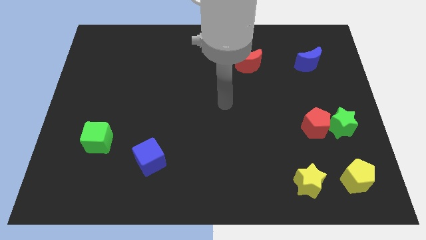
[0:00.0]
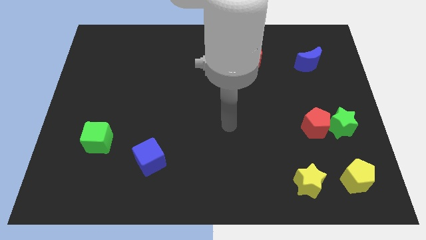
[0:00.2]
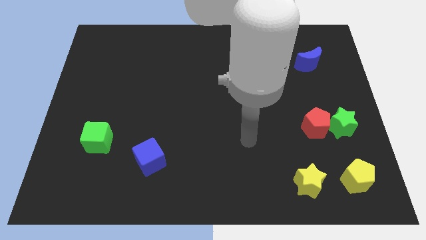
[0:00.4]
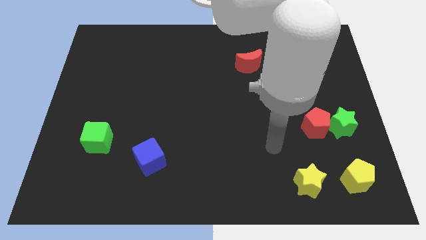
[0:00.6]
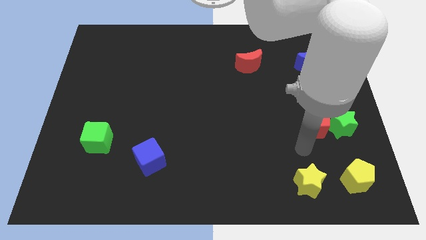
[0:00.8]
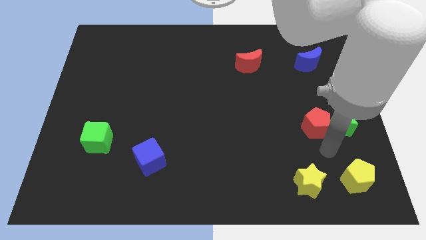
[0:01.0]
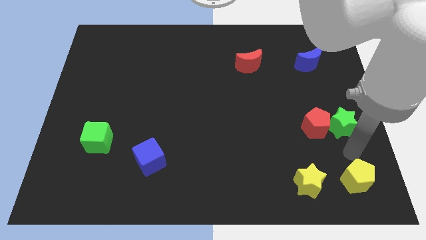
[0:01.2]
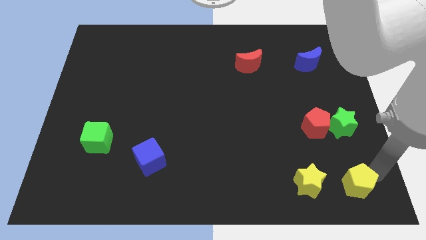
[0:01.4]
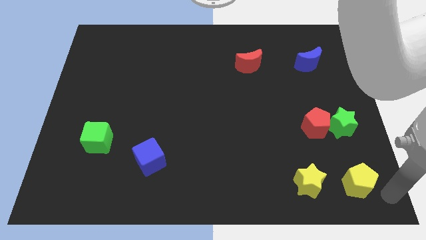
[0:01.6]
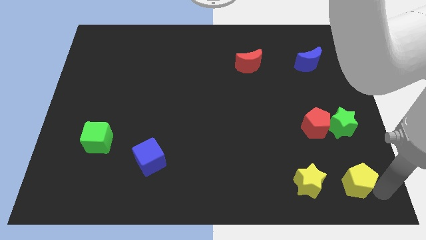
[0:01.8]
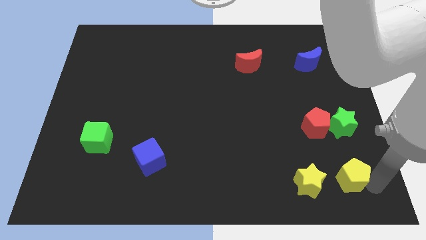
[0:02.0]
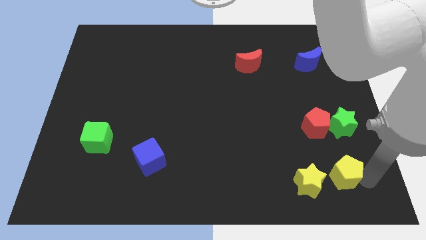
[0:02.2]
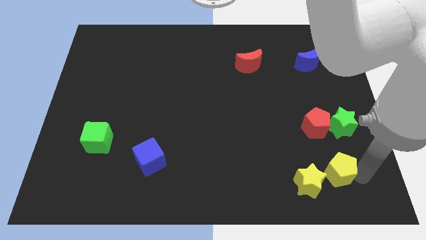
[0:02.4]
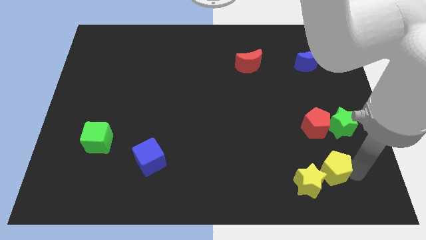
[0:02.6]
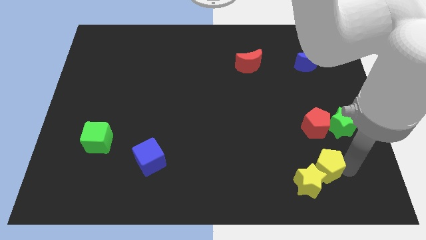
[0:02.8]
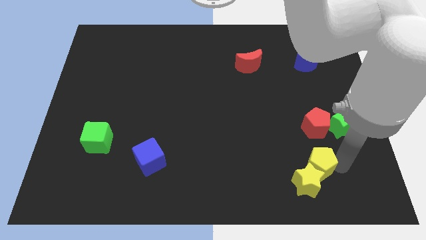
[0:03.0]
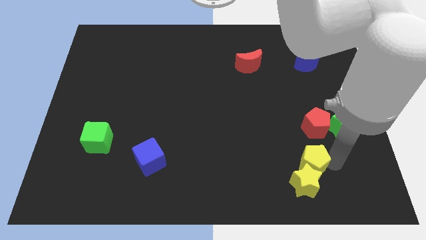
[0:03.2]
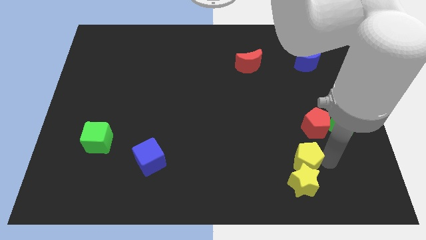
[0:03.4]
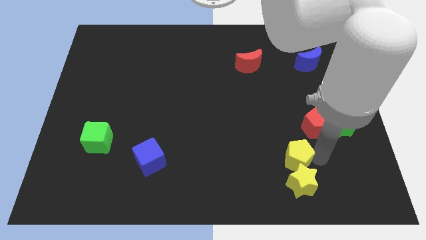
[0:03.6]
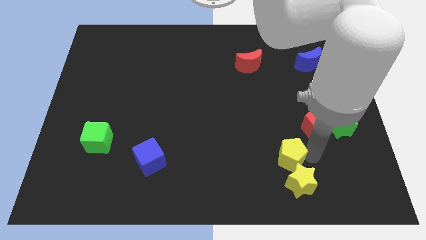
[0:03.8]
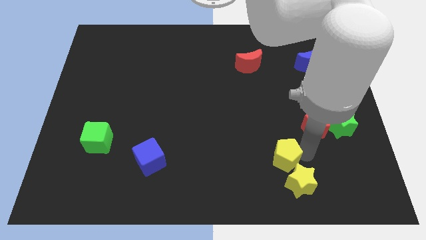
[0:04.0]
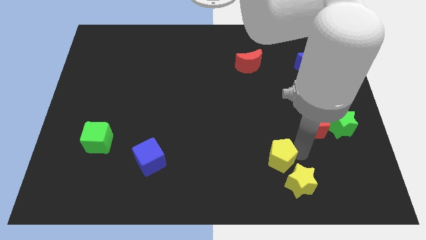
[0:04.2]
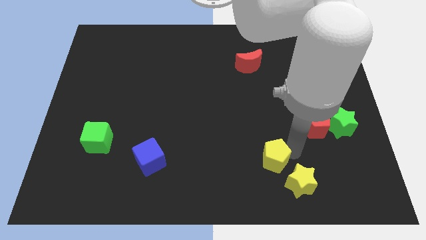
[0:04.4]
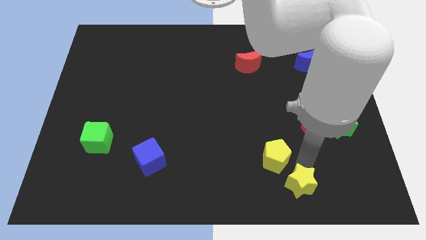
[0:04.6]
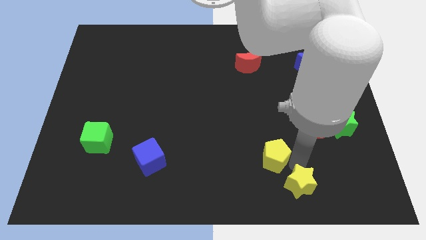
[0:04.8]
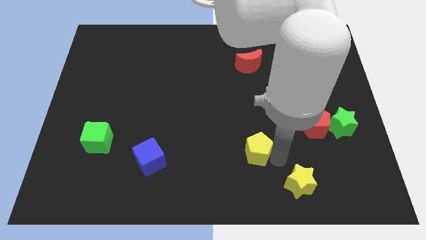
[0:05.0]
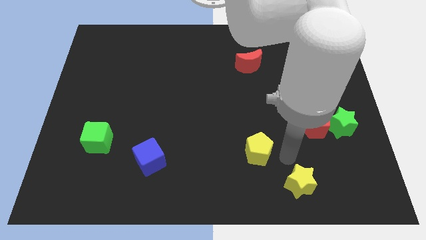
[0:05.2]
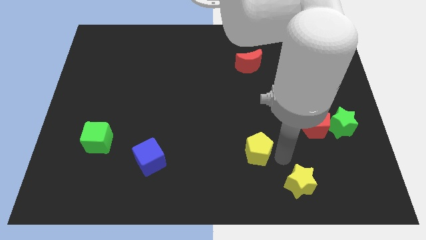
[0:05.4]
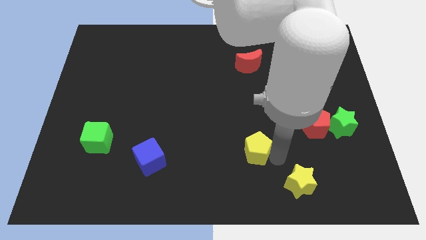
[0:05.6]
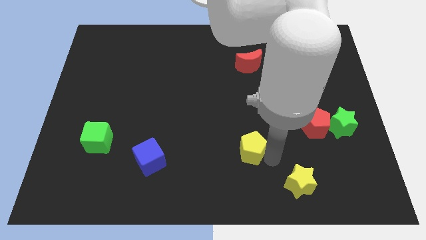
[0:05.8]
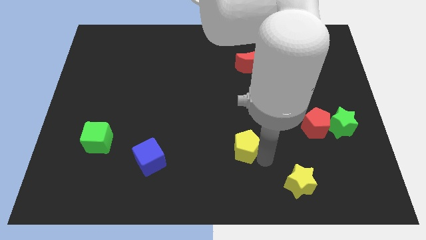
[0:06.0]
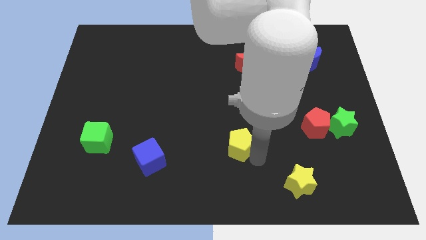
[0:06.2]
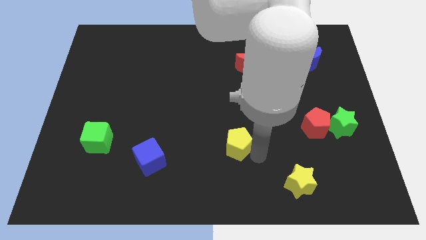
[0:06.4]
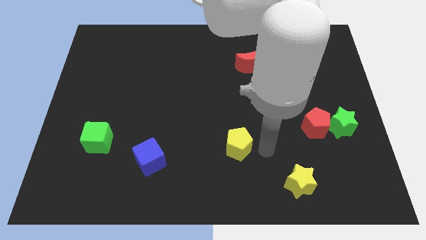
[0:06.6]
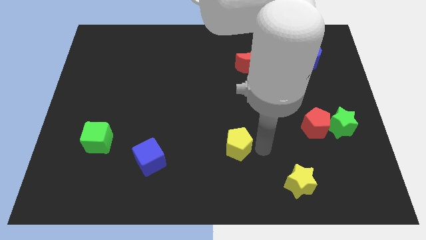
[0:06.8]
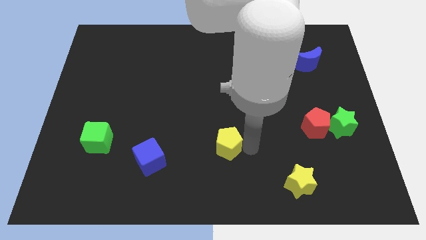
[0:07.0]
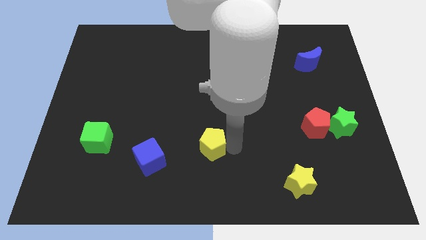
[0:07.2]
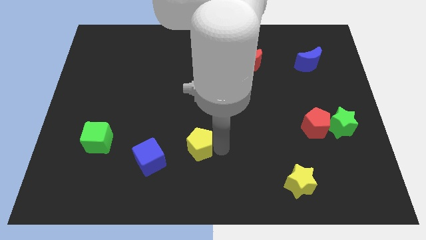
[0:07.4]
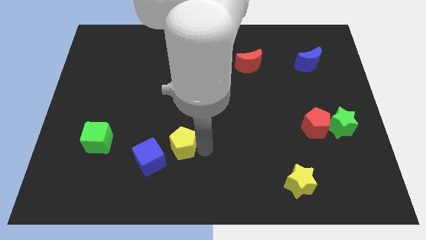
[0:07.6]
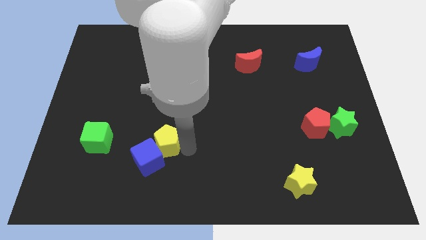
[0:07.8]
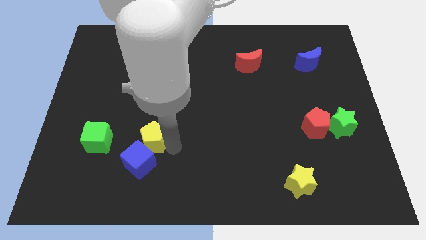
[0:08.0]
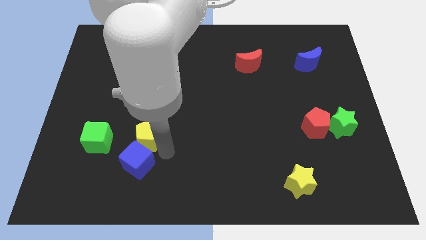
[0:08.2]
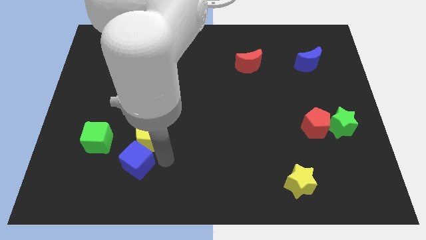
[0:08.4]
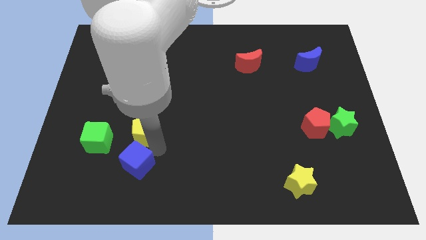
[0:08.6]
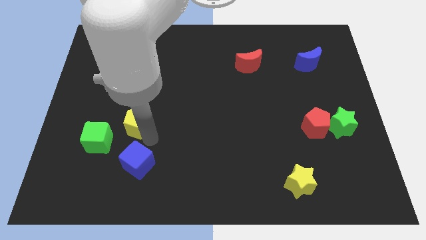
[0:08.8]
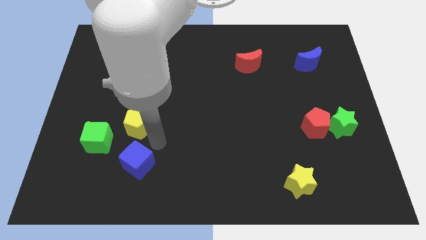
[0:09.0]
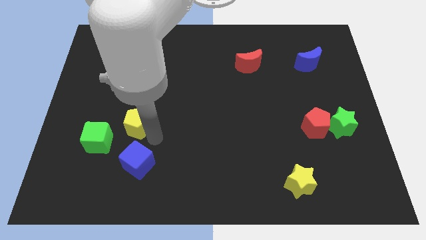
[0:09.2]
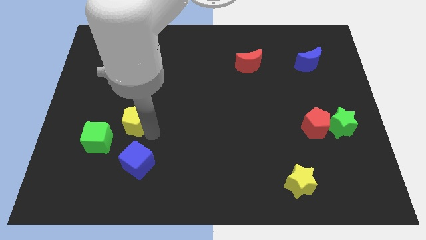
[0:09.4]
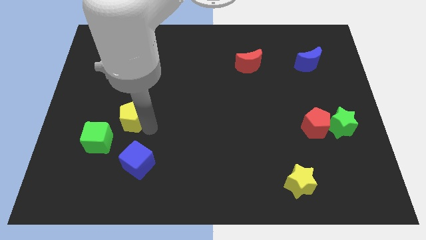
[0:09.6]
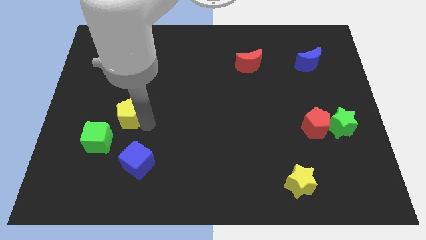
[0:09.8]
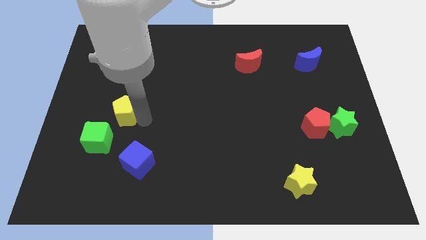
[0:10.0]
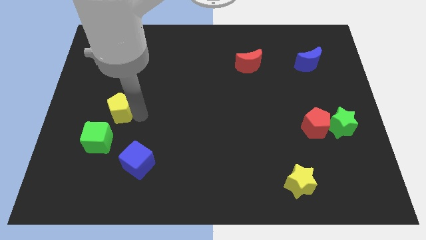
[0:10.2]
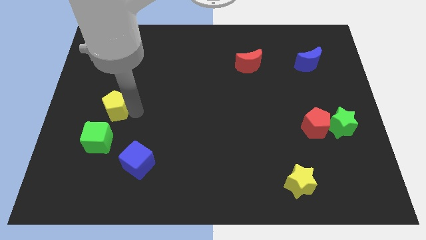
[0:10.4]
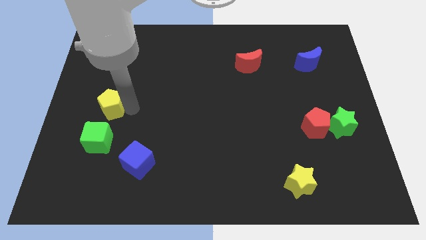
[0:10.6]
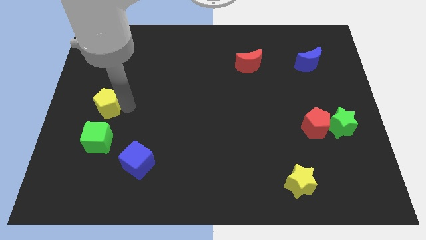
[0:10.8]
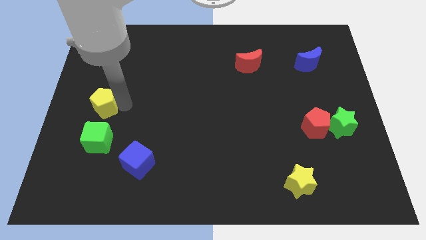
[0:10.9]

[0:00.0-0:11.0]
put the yellow pentagon to the left side of the board

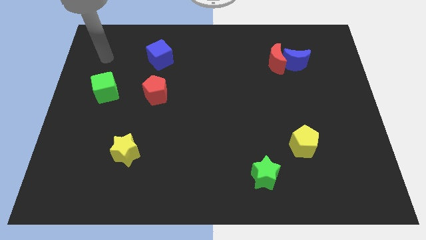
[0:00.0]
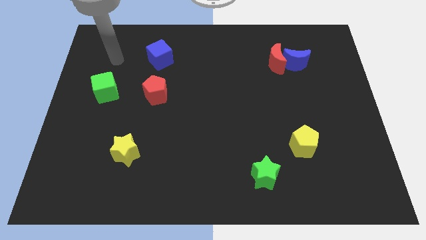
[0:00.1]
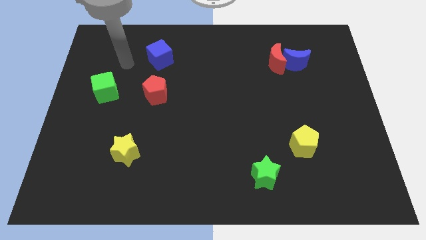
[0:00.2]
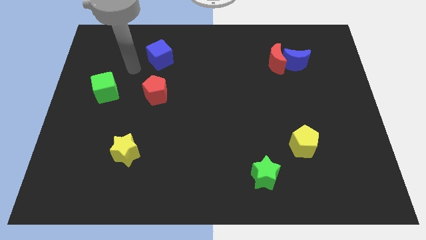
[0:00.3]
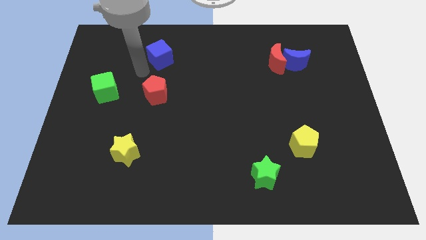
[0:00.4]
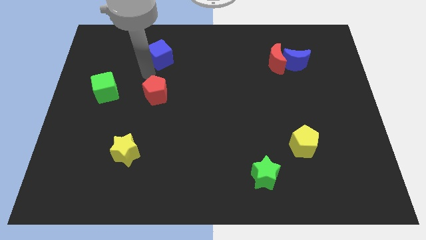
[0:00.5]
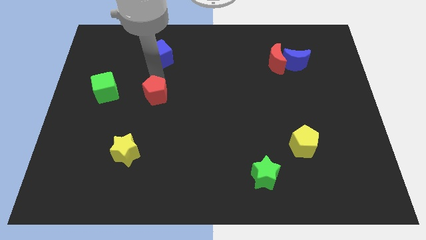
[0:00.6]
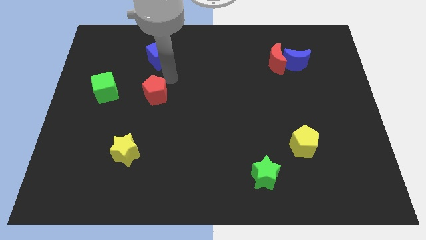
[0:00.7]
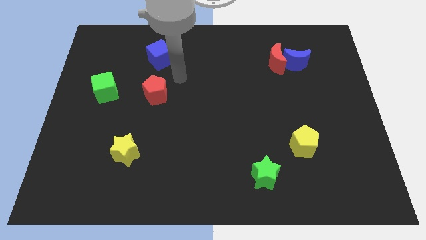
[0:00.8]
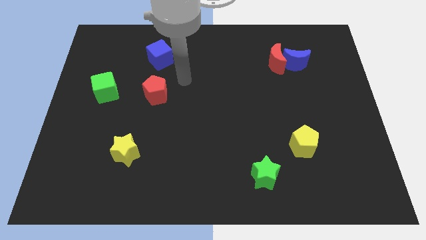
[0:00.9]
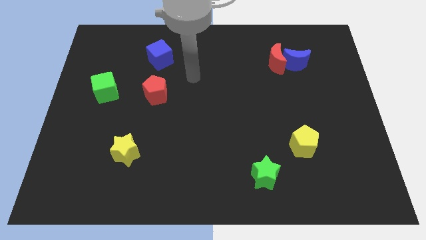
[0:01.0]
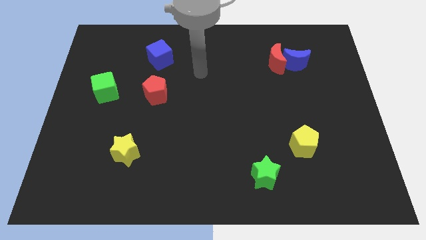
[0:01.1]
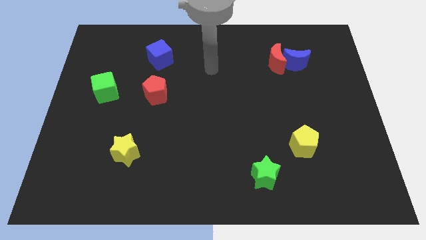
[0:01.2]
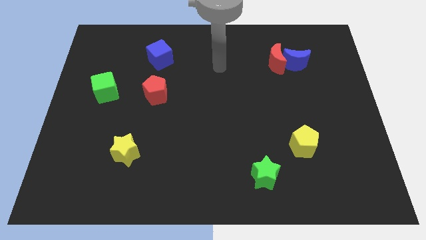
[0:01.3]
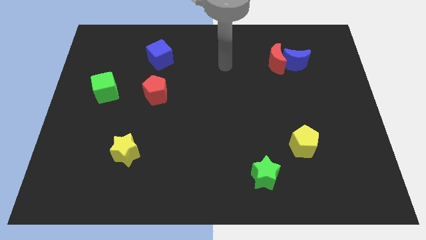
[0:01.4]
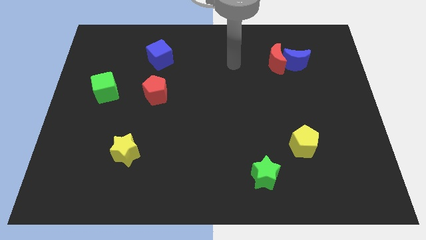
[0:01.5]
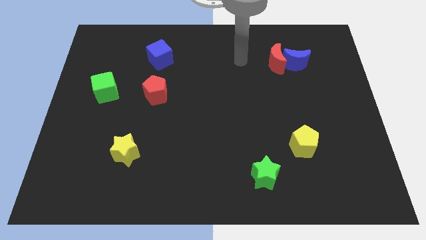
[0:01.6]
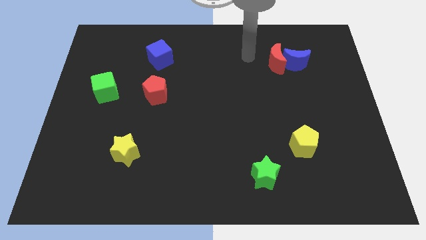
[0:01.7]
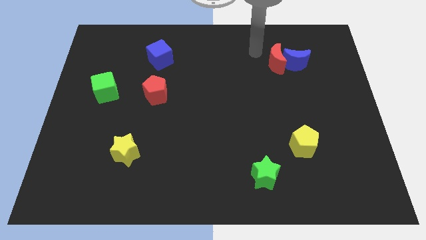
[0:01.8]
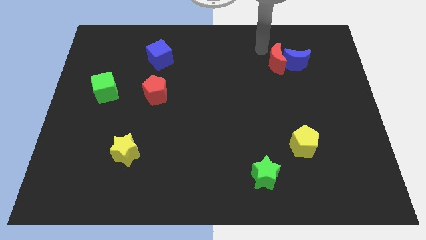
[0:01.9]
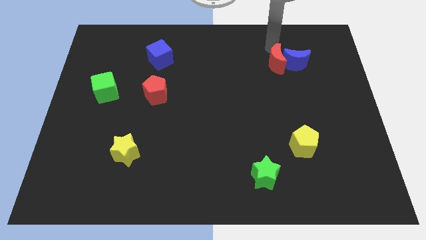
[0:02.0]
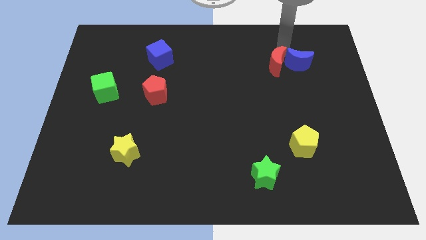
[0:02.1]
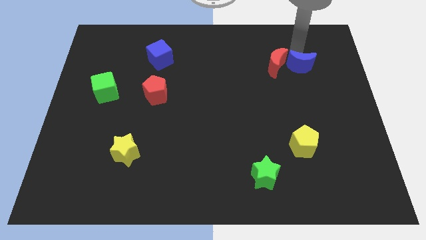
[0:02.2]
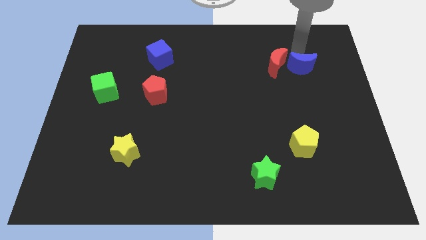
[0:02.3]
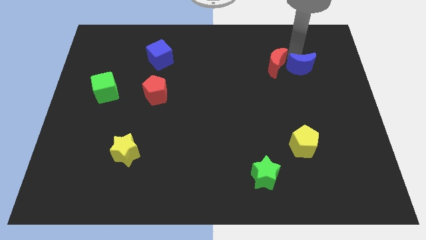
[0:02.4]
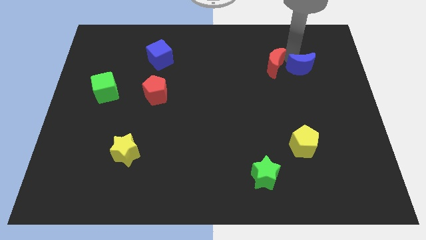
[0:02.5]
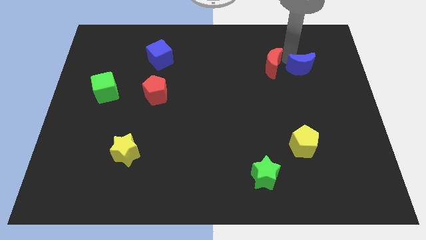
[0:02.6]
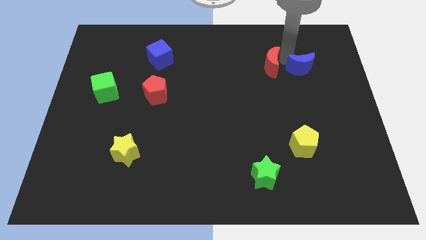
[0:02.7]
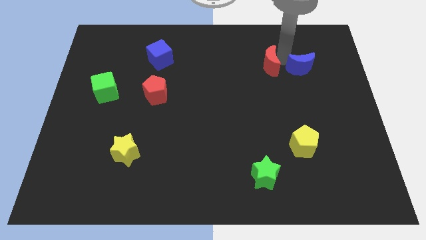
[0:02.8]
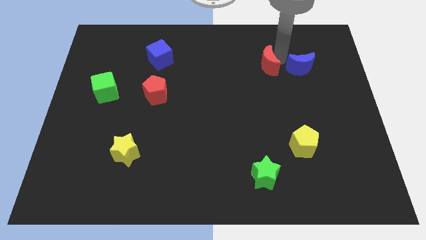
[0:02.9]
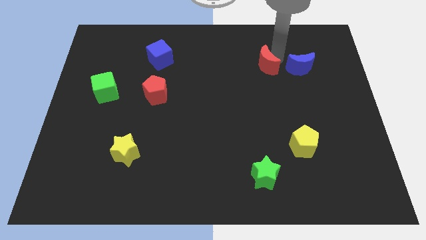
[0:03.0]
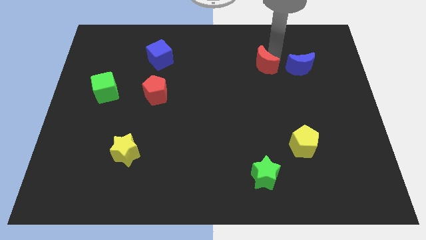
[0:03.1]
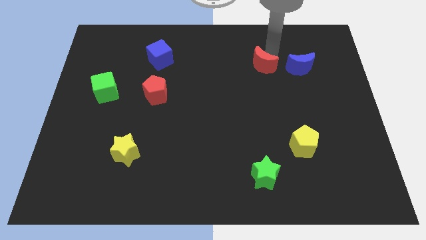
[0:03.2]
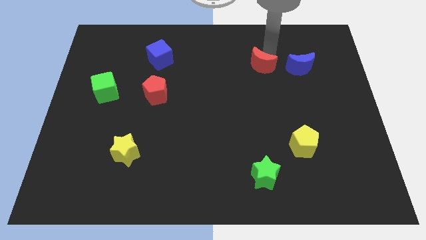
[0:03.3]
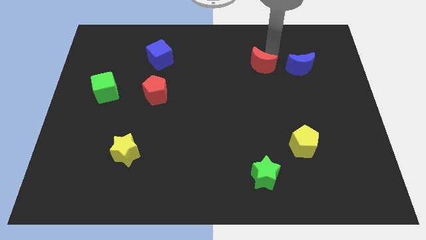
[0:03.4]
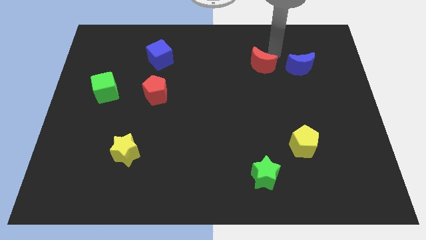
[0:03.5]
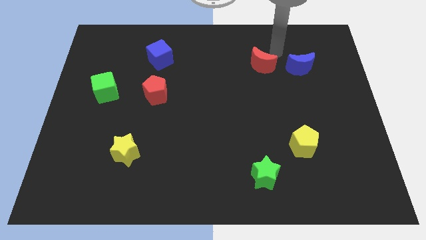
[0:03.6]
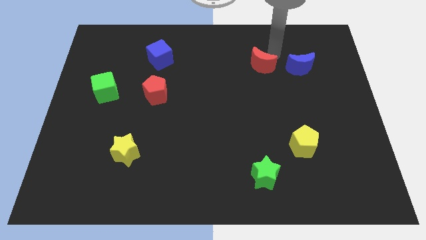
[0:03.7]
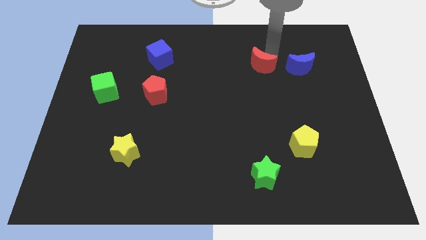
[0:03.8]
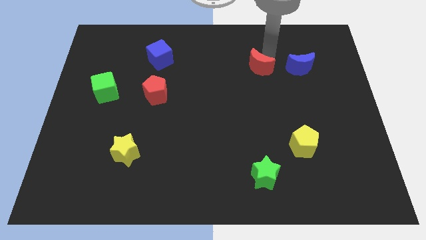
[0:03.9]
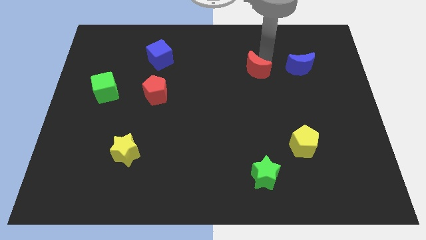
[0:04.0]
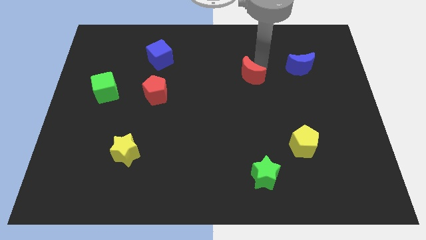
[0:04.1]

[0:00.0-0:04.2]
put the red moon to the center
